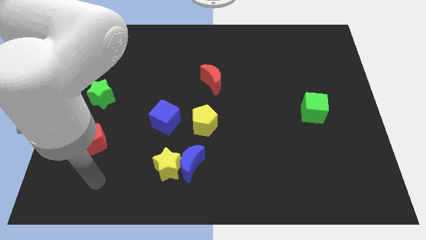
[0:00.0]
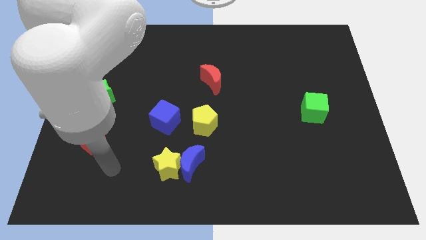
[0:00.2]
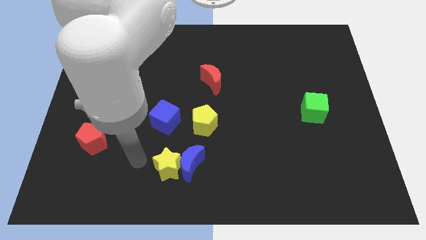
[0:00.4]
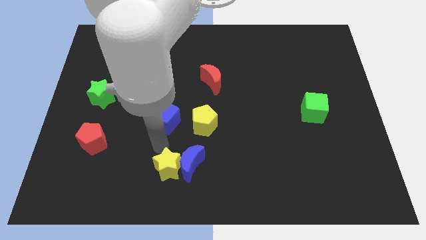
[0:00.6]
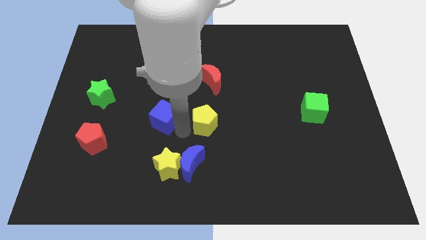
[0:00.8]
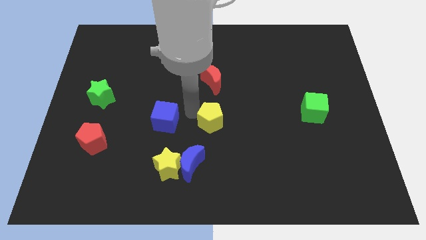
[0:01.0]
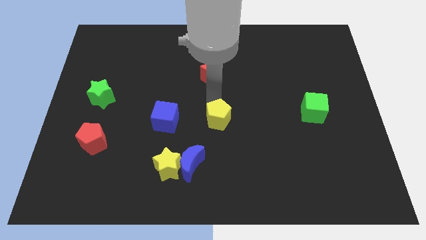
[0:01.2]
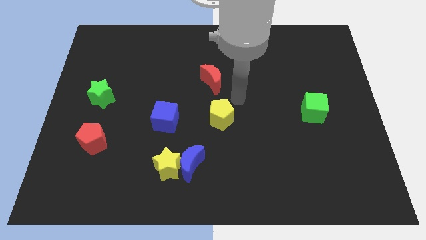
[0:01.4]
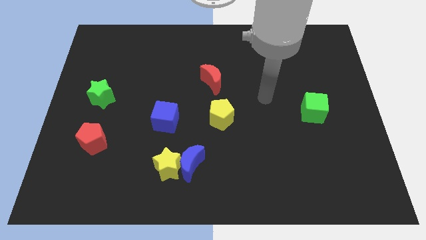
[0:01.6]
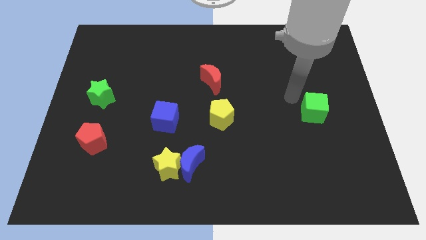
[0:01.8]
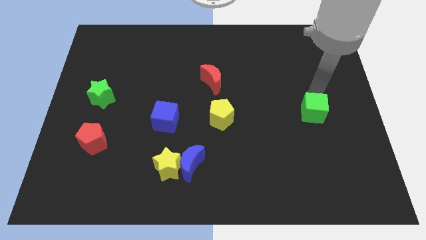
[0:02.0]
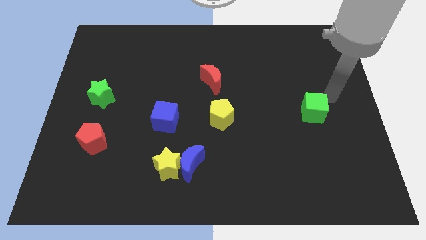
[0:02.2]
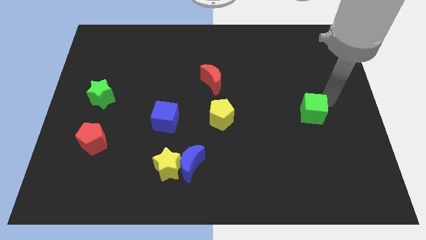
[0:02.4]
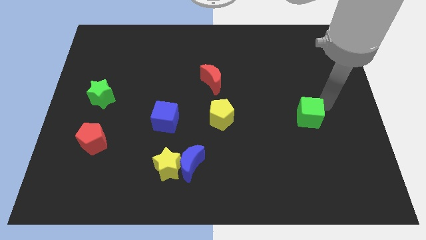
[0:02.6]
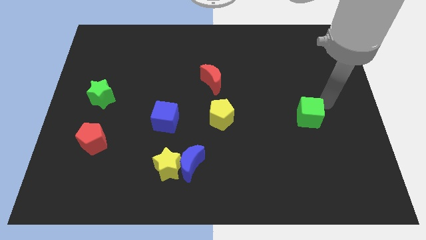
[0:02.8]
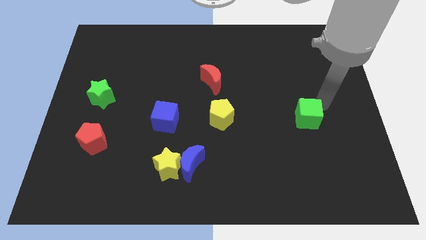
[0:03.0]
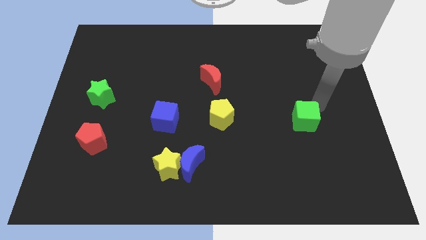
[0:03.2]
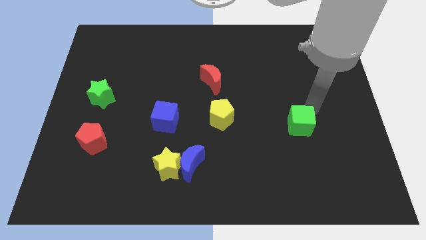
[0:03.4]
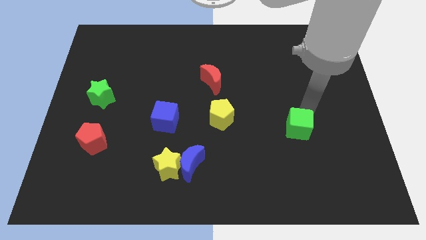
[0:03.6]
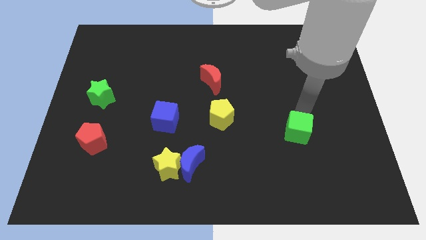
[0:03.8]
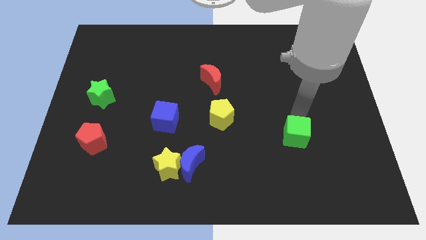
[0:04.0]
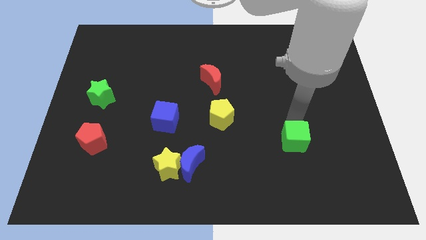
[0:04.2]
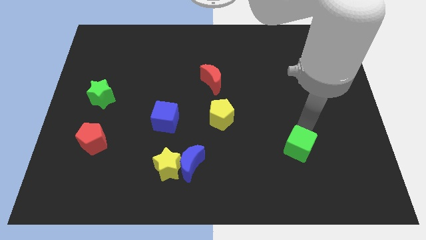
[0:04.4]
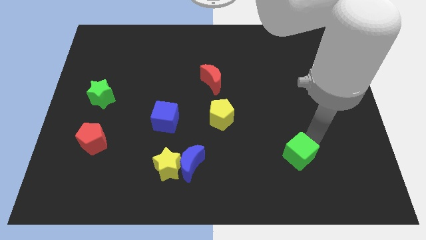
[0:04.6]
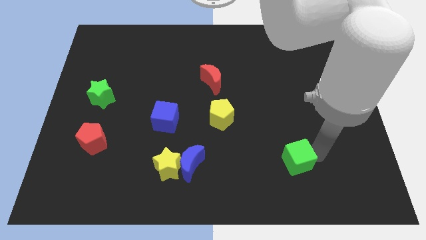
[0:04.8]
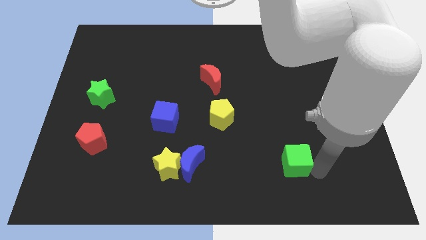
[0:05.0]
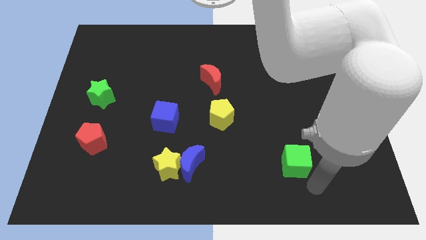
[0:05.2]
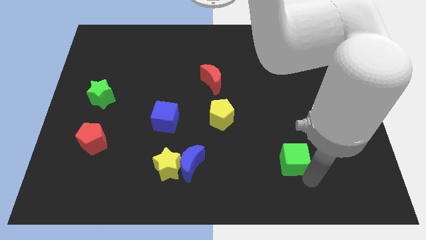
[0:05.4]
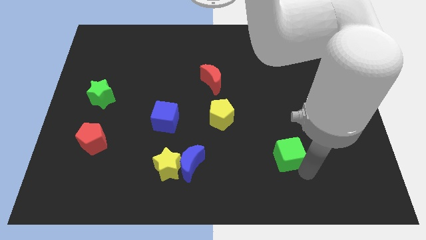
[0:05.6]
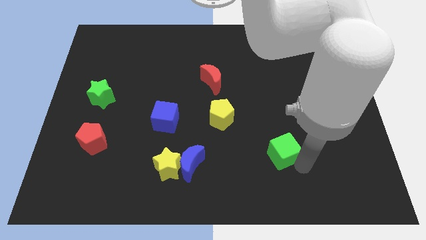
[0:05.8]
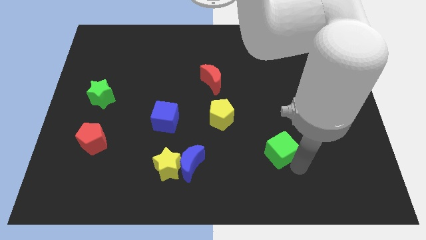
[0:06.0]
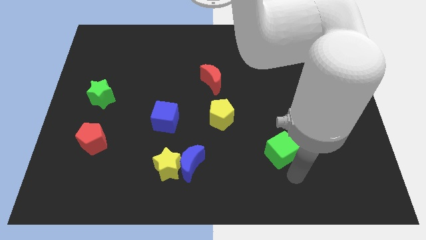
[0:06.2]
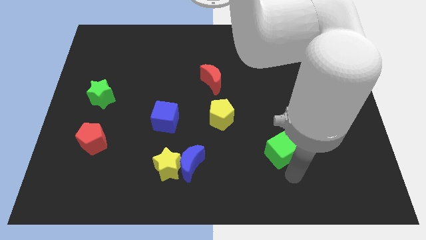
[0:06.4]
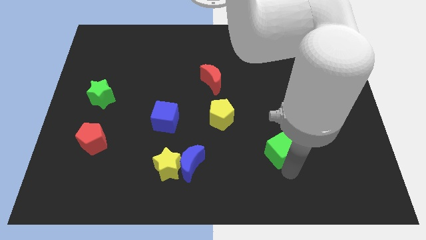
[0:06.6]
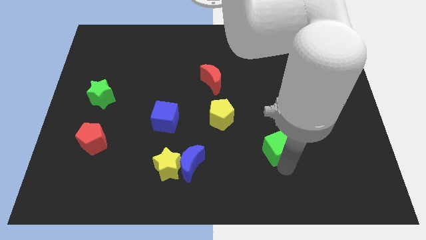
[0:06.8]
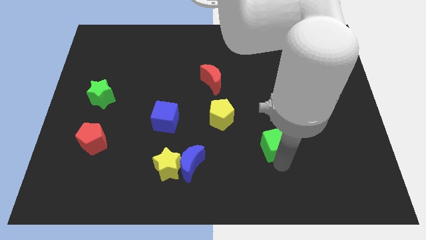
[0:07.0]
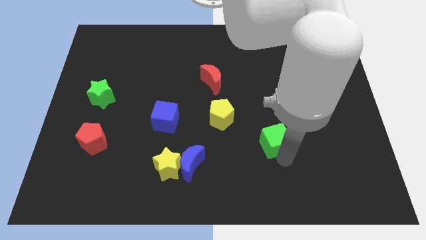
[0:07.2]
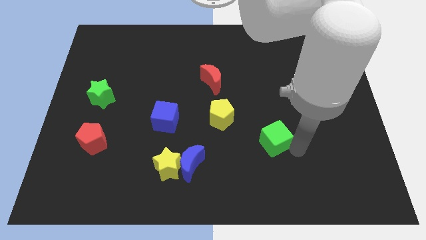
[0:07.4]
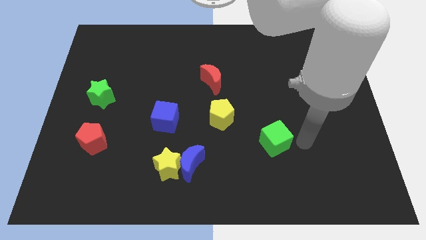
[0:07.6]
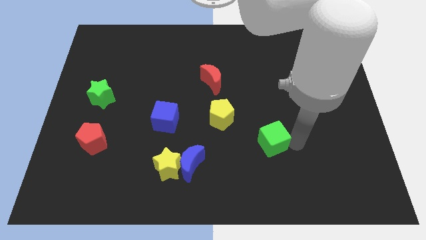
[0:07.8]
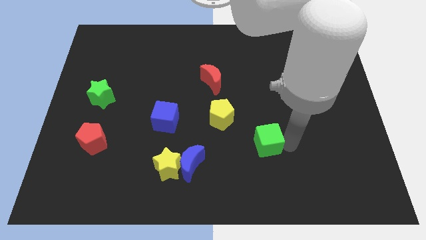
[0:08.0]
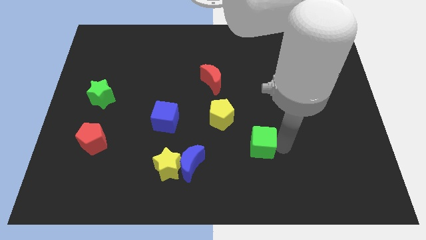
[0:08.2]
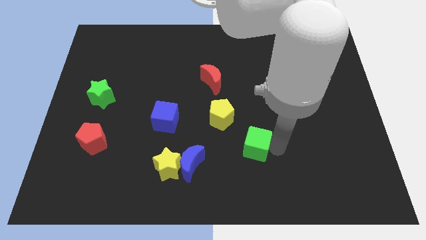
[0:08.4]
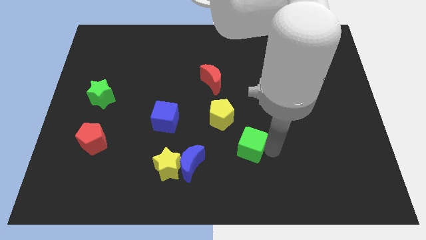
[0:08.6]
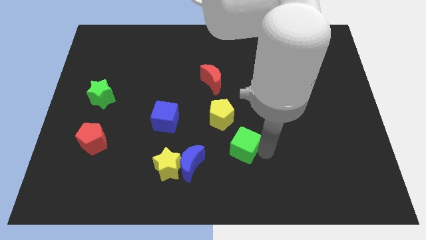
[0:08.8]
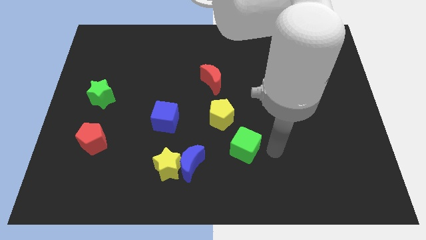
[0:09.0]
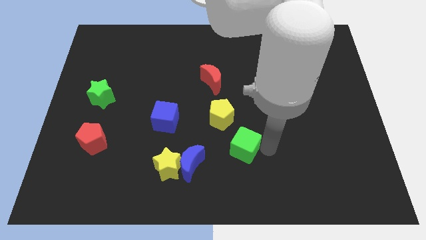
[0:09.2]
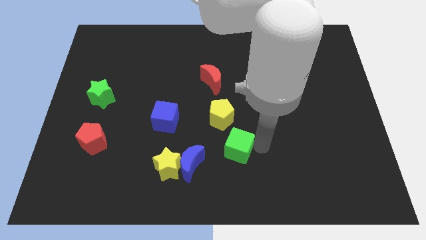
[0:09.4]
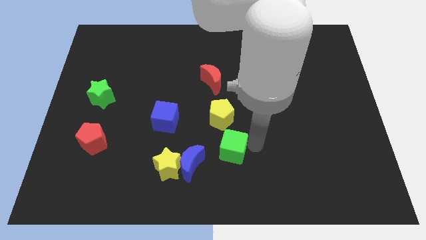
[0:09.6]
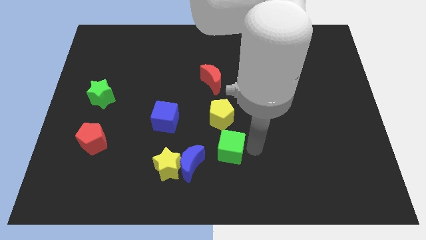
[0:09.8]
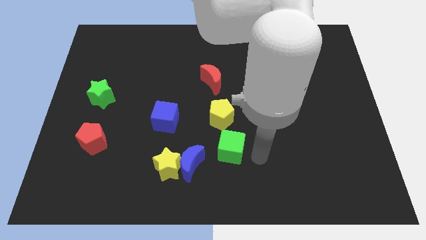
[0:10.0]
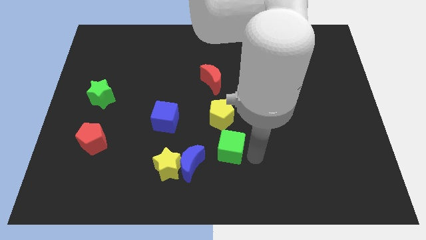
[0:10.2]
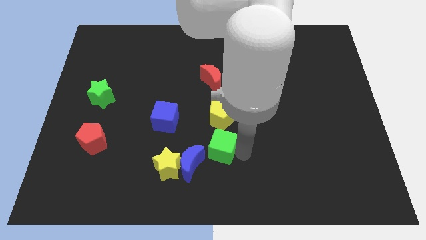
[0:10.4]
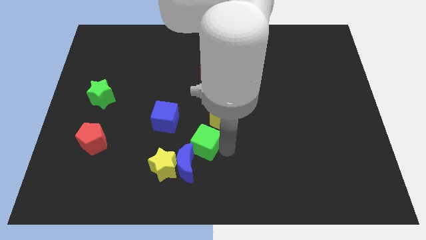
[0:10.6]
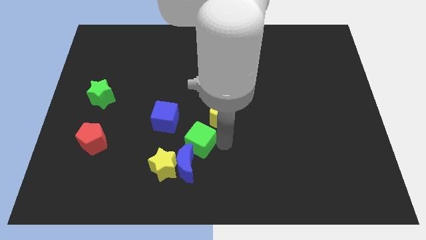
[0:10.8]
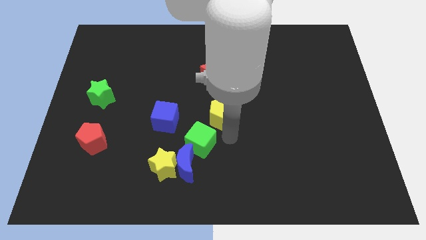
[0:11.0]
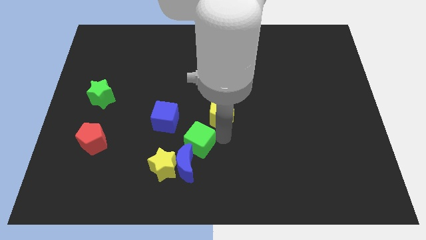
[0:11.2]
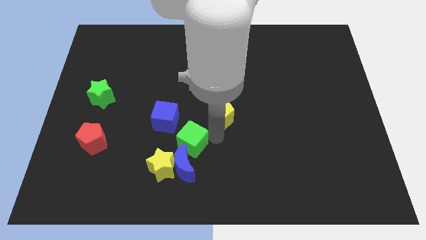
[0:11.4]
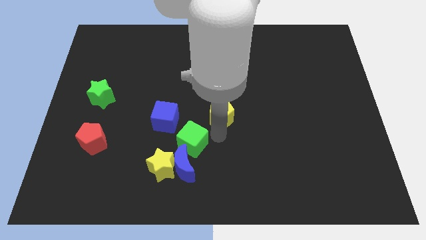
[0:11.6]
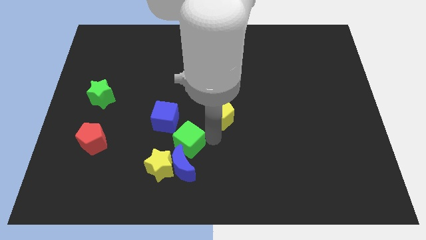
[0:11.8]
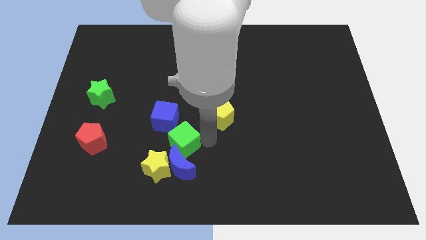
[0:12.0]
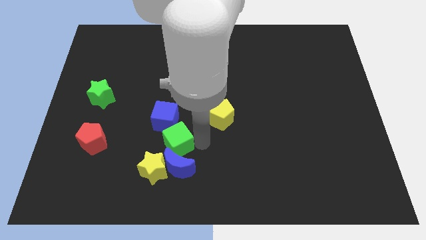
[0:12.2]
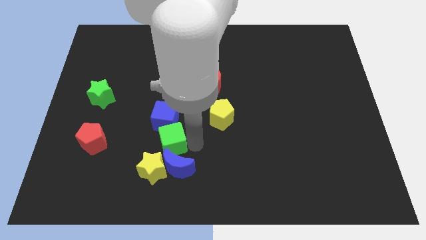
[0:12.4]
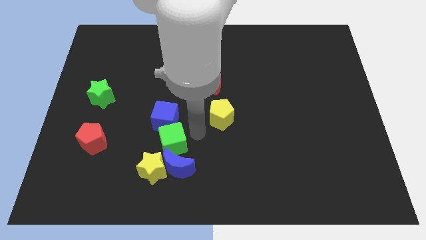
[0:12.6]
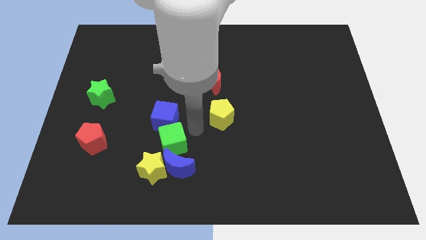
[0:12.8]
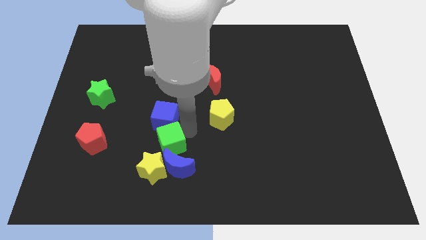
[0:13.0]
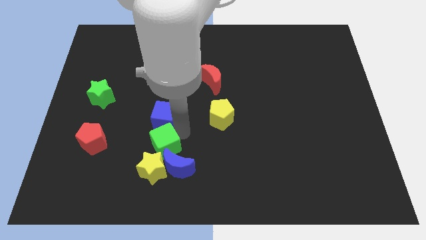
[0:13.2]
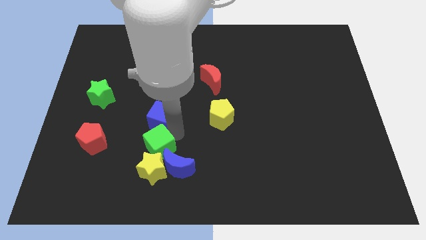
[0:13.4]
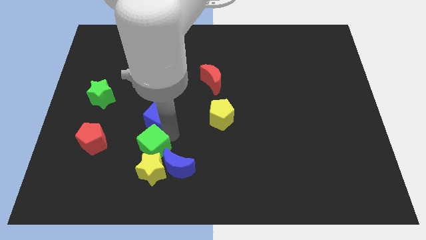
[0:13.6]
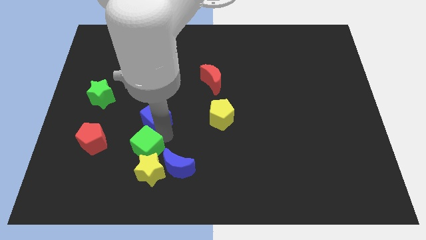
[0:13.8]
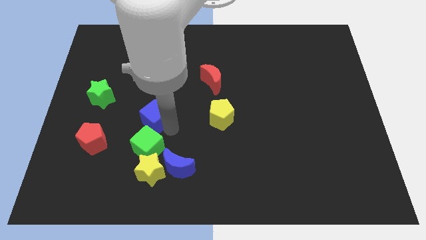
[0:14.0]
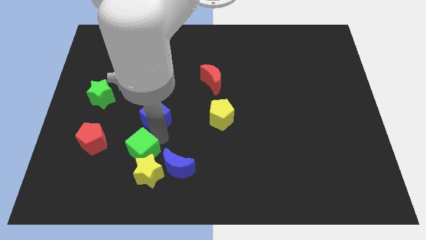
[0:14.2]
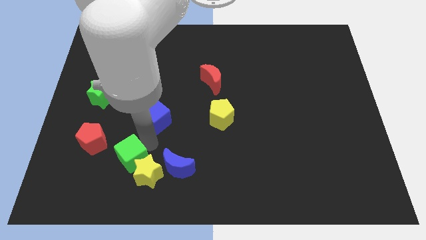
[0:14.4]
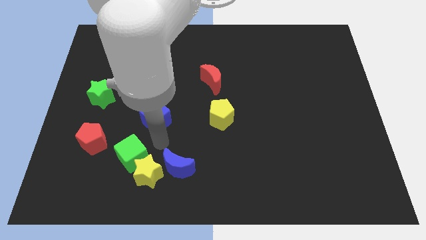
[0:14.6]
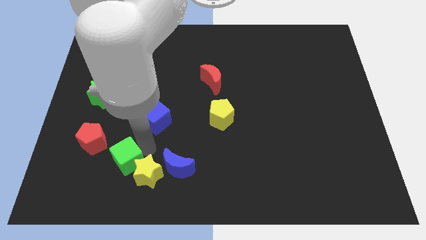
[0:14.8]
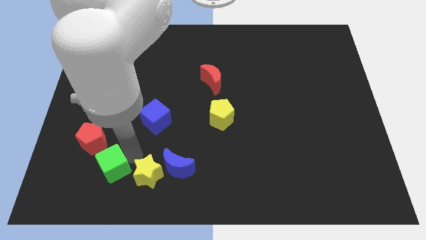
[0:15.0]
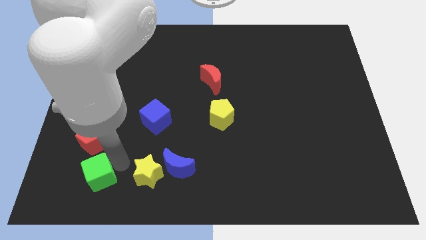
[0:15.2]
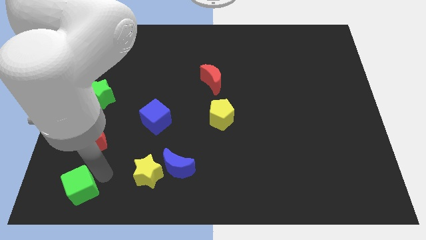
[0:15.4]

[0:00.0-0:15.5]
slide the green cube to the bottom left
